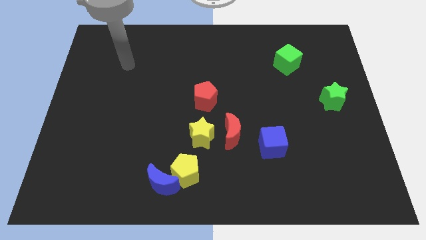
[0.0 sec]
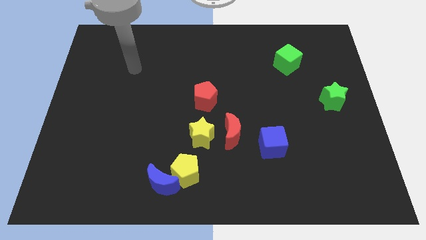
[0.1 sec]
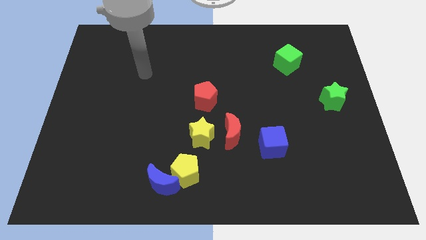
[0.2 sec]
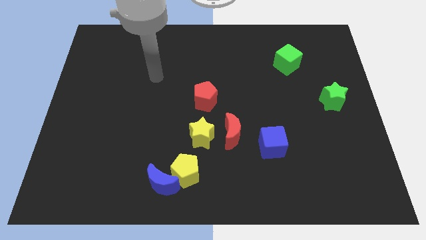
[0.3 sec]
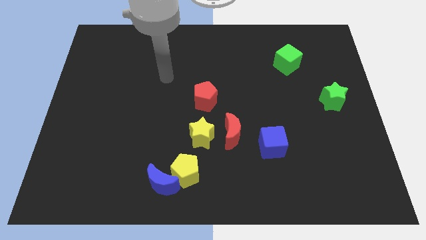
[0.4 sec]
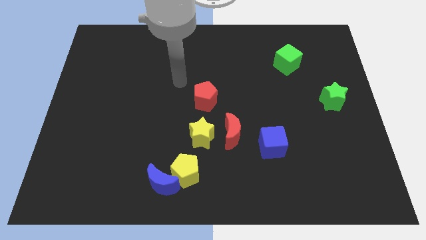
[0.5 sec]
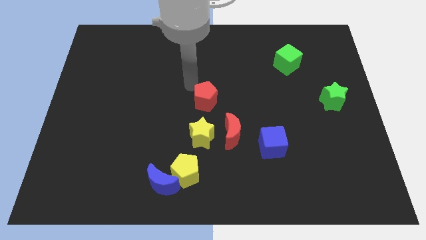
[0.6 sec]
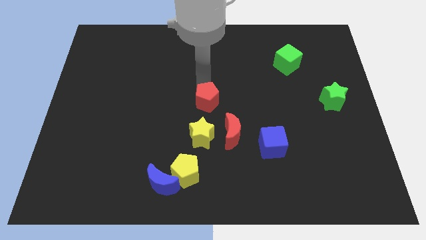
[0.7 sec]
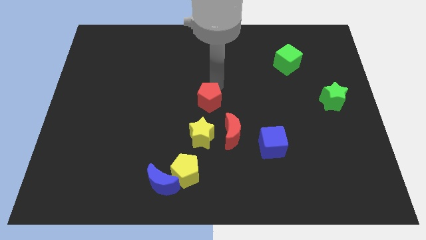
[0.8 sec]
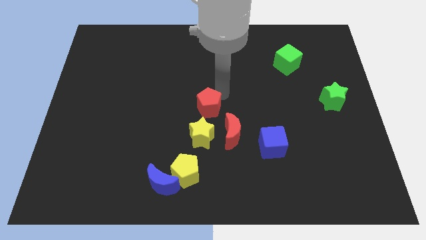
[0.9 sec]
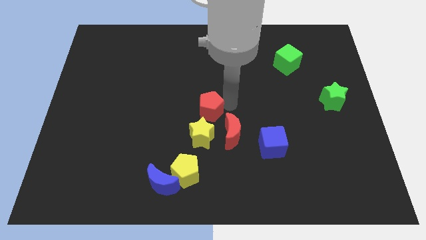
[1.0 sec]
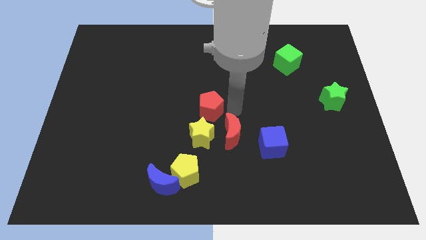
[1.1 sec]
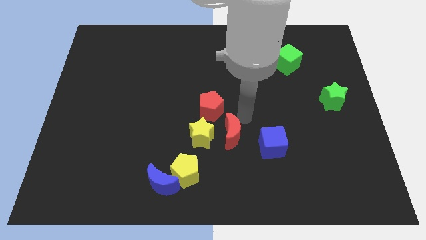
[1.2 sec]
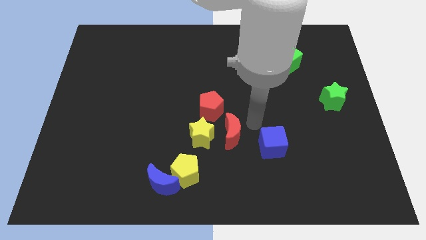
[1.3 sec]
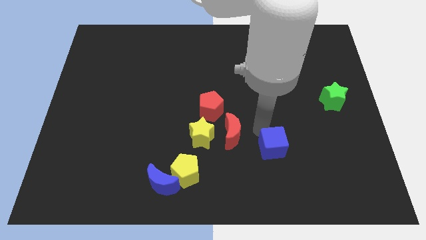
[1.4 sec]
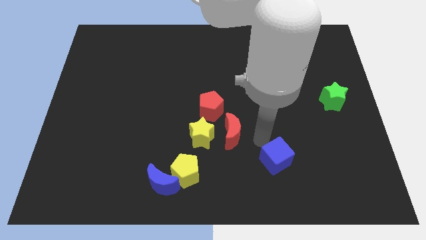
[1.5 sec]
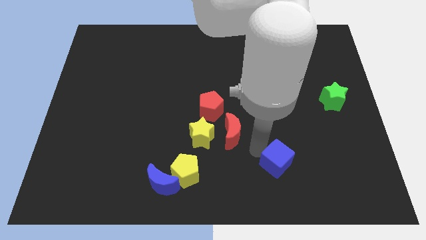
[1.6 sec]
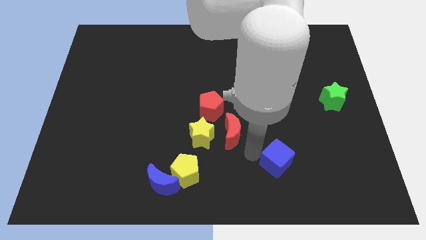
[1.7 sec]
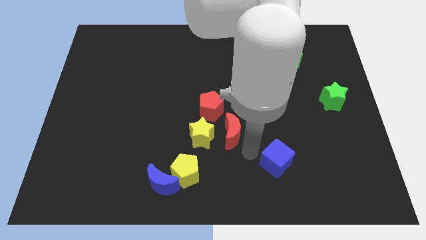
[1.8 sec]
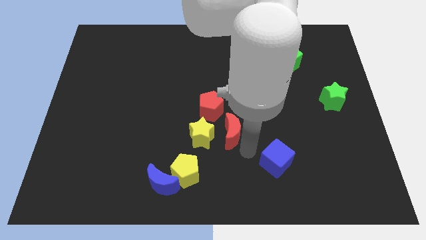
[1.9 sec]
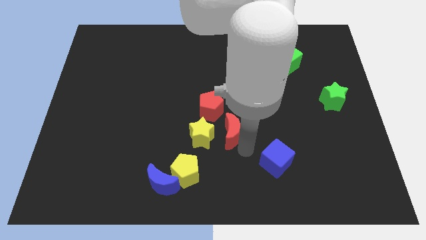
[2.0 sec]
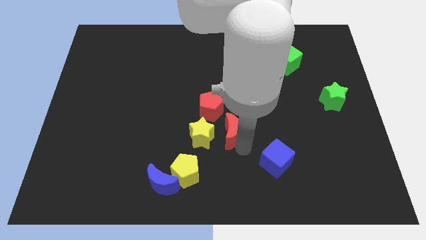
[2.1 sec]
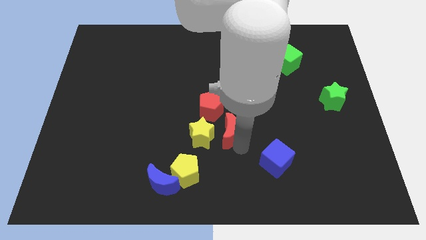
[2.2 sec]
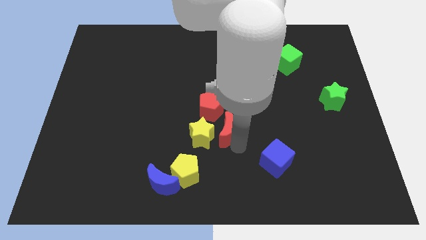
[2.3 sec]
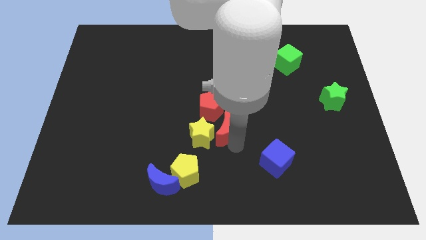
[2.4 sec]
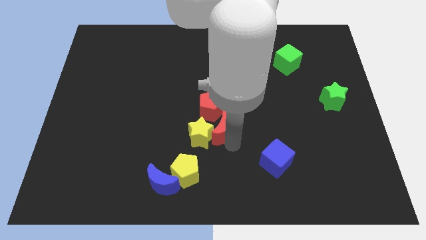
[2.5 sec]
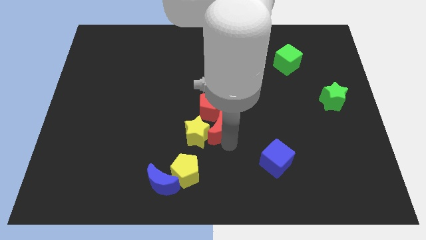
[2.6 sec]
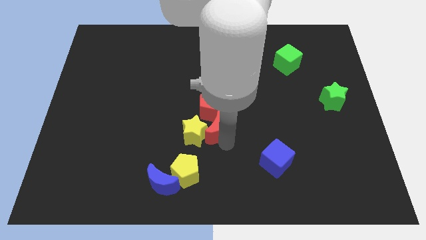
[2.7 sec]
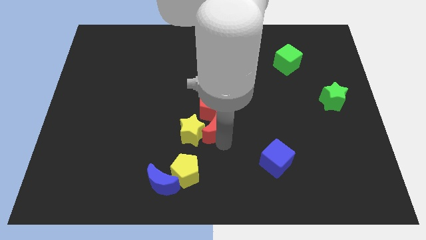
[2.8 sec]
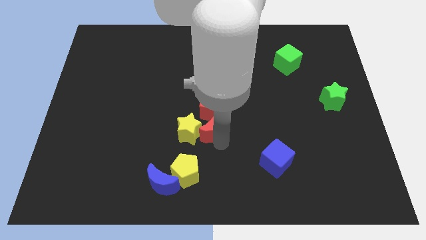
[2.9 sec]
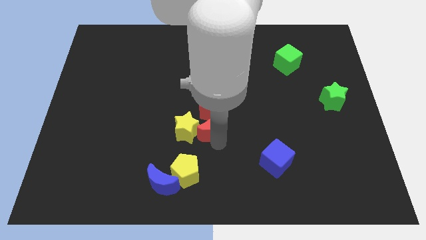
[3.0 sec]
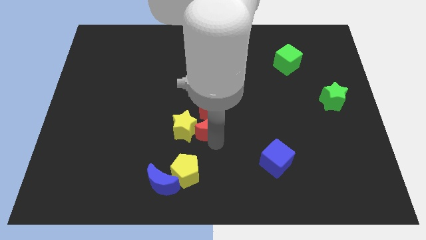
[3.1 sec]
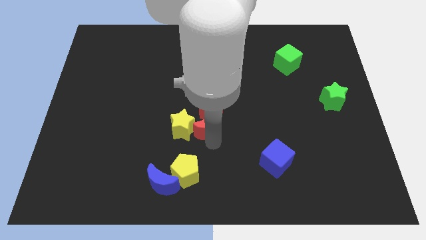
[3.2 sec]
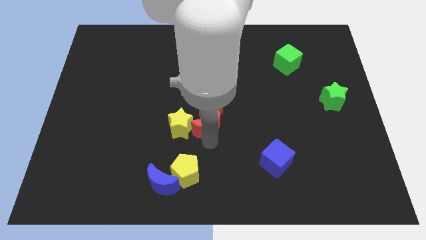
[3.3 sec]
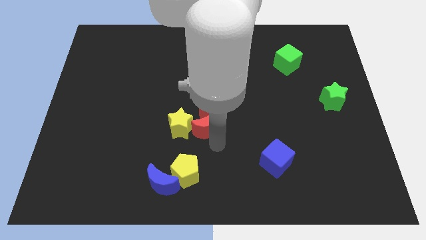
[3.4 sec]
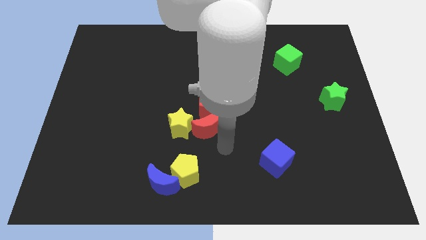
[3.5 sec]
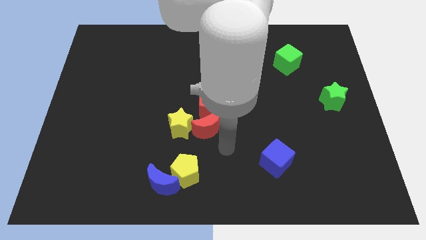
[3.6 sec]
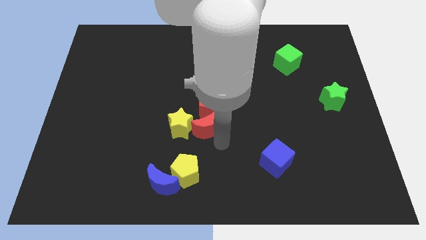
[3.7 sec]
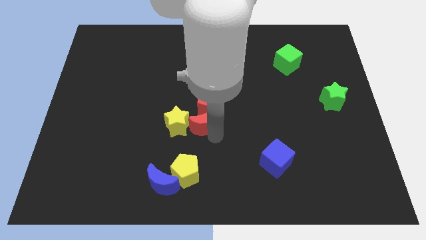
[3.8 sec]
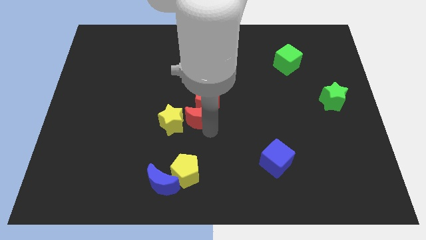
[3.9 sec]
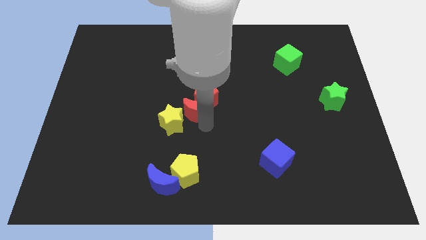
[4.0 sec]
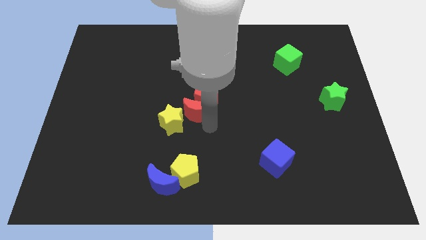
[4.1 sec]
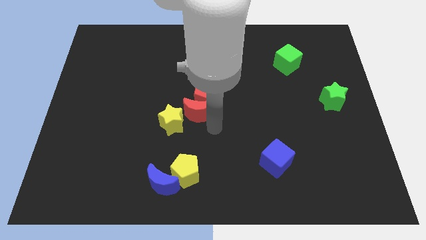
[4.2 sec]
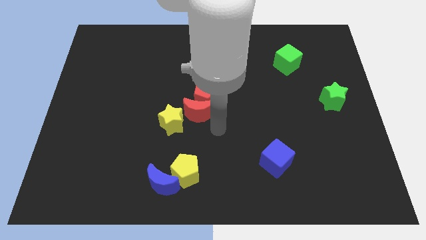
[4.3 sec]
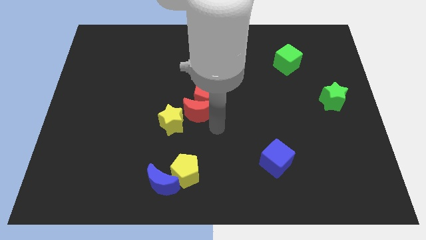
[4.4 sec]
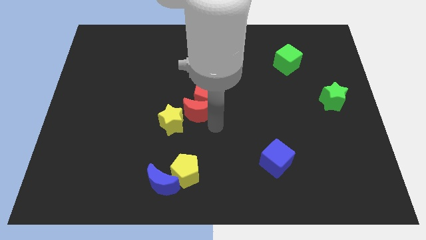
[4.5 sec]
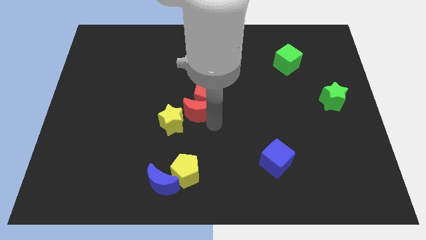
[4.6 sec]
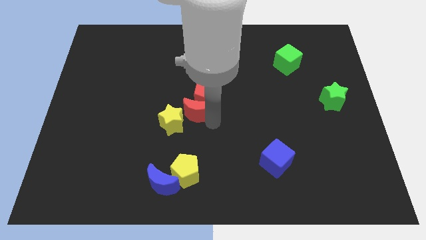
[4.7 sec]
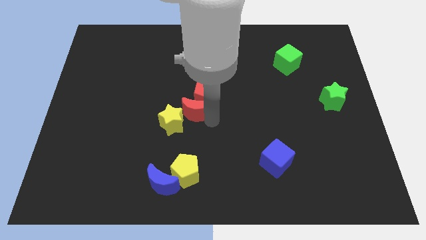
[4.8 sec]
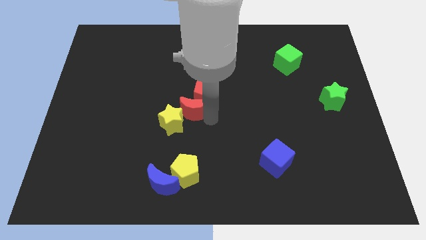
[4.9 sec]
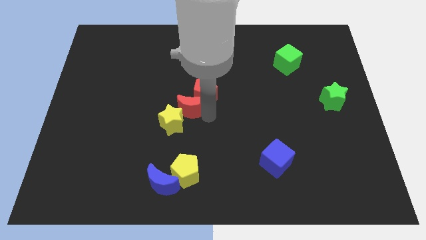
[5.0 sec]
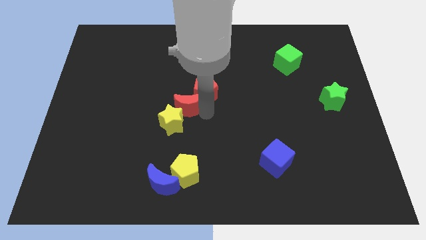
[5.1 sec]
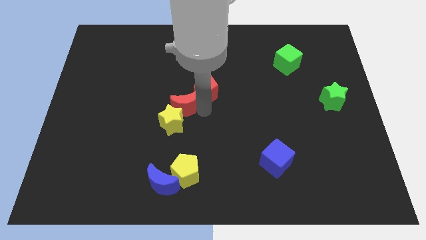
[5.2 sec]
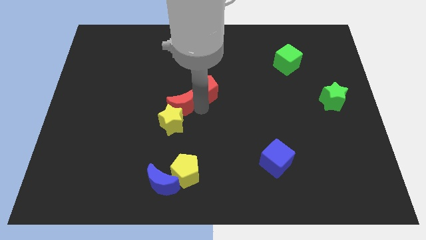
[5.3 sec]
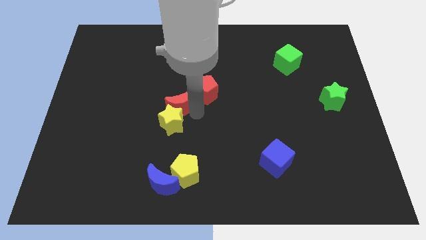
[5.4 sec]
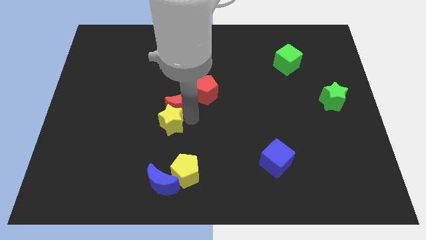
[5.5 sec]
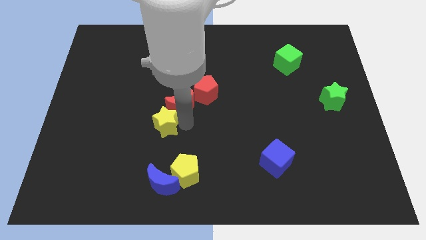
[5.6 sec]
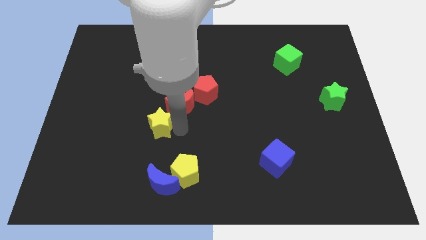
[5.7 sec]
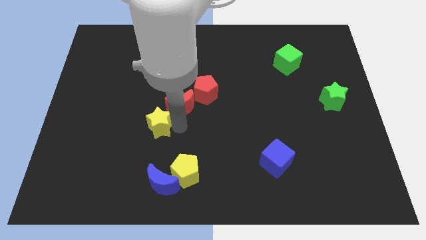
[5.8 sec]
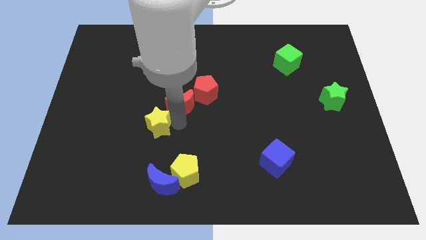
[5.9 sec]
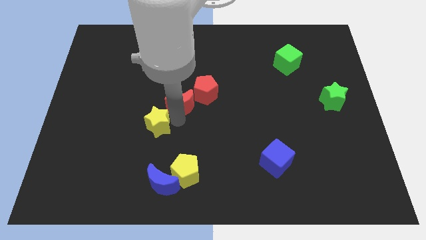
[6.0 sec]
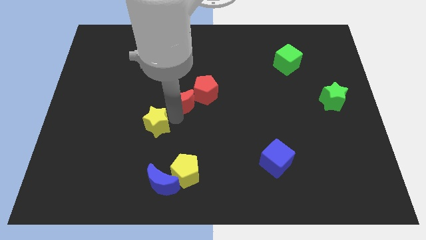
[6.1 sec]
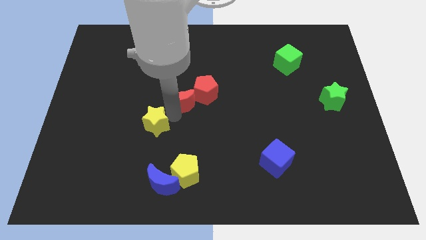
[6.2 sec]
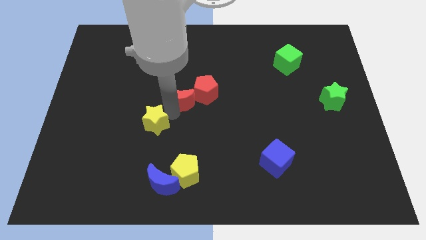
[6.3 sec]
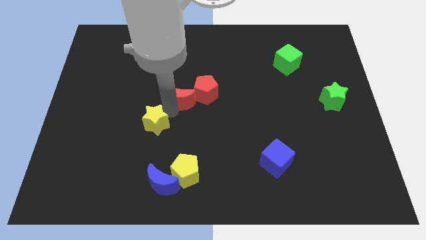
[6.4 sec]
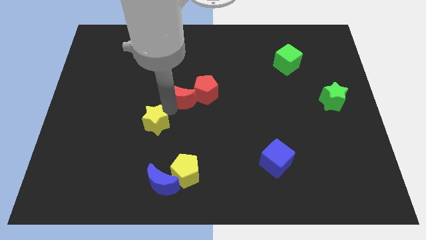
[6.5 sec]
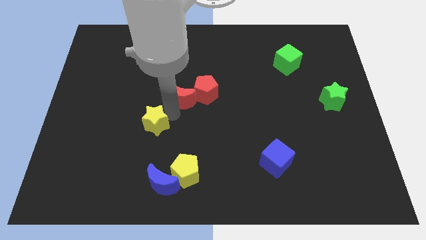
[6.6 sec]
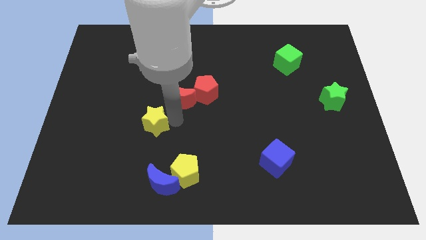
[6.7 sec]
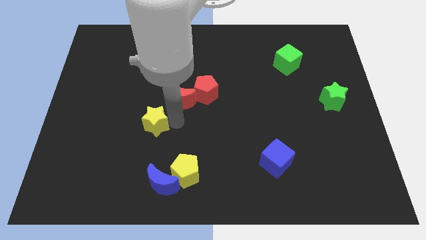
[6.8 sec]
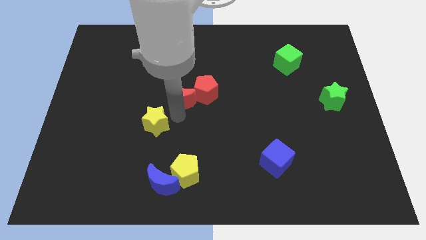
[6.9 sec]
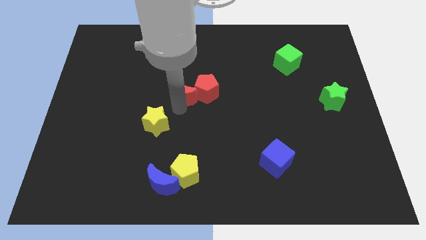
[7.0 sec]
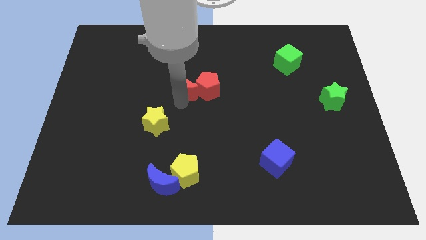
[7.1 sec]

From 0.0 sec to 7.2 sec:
push the red moon diagonally up and to the left of the red pentagon
